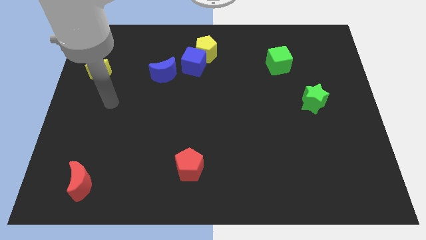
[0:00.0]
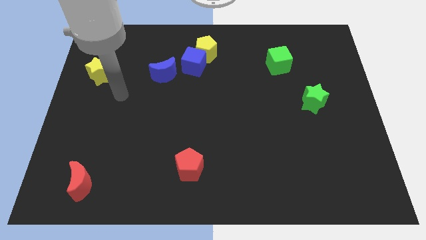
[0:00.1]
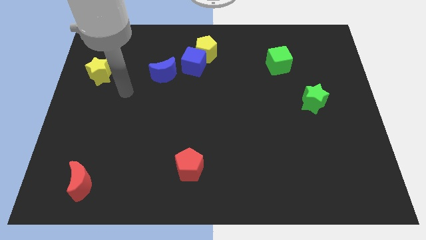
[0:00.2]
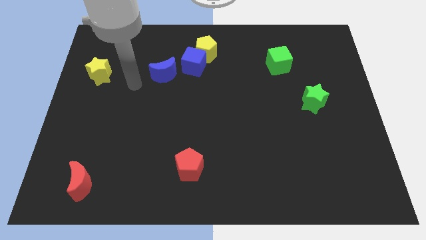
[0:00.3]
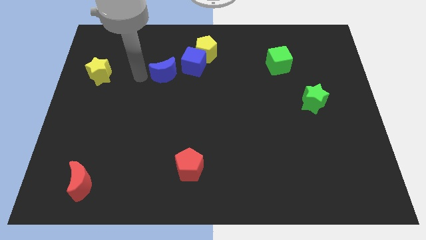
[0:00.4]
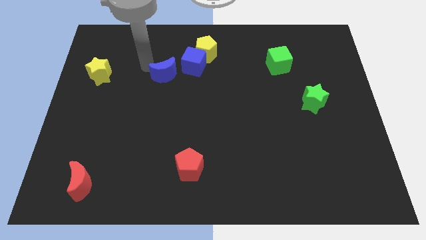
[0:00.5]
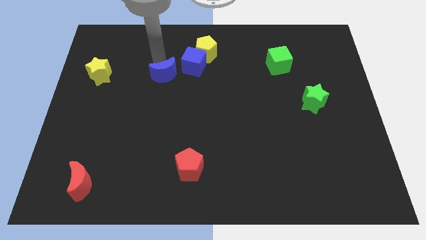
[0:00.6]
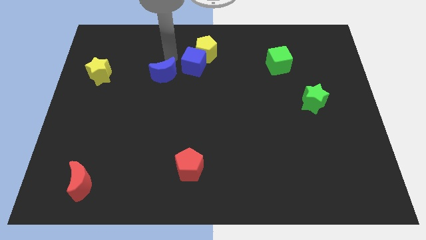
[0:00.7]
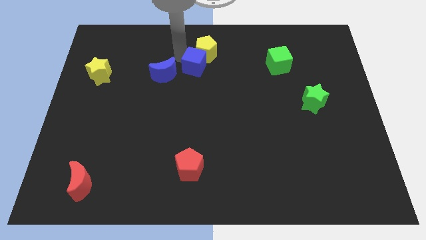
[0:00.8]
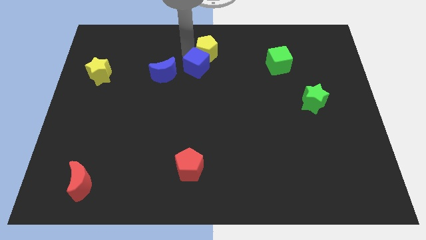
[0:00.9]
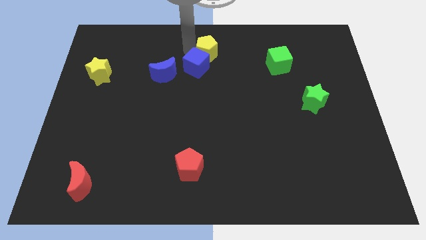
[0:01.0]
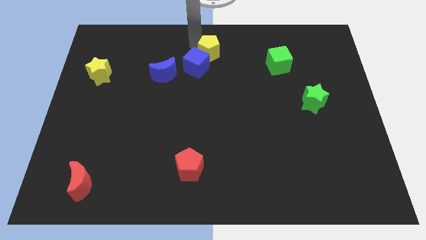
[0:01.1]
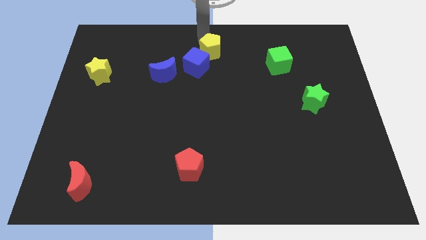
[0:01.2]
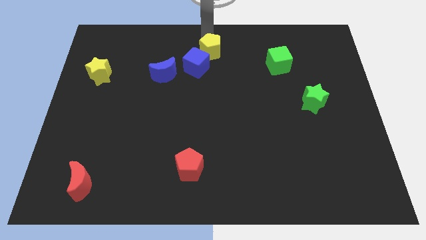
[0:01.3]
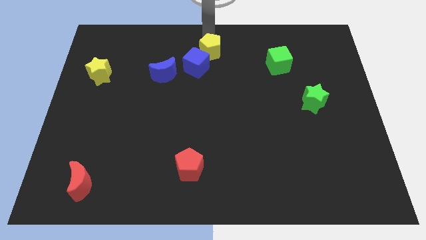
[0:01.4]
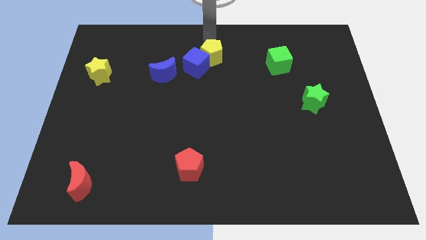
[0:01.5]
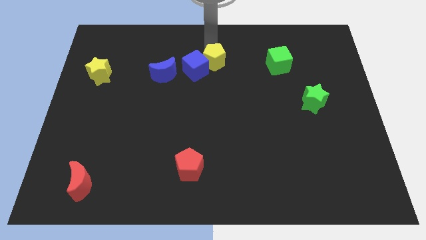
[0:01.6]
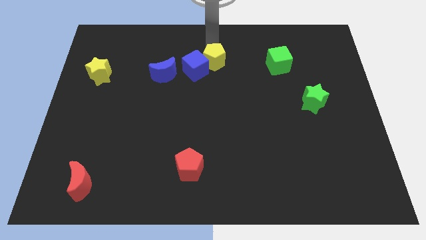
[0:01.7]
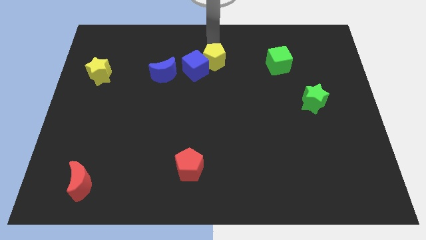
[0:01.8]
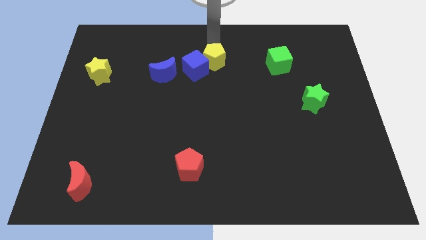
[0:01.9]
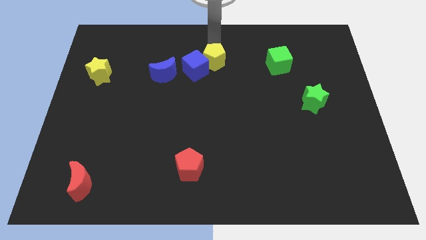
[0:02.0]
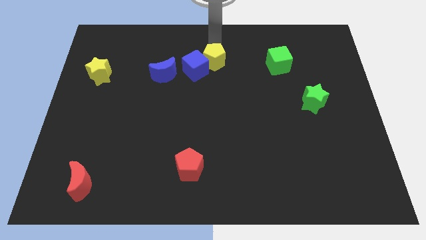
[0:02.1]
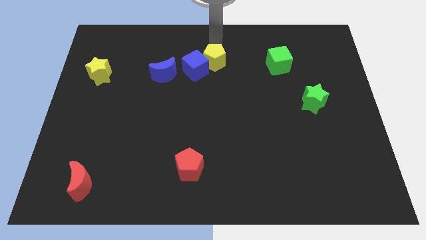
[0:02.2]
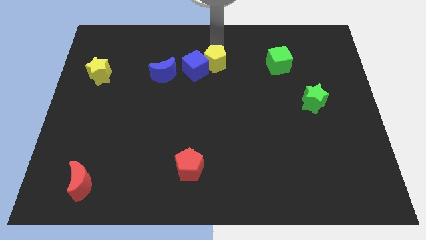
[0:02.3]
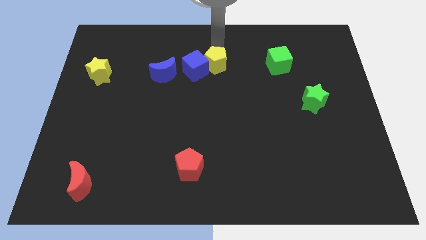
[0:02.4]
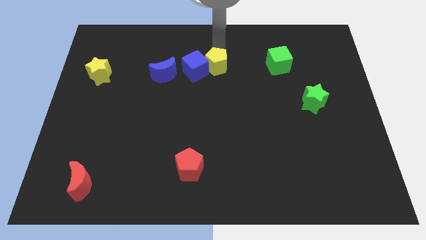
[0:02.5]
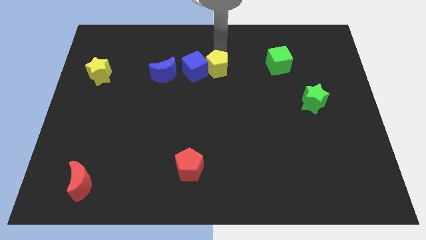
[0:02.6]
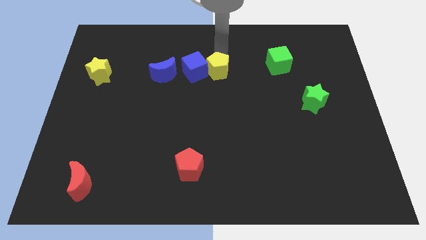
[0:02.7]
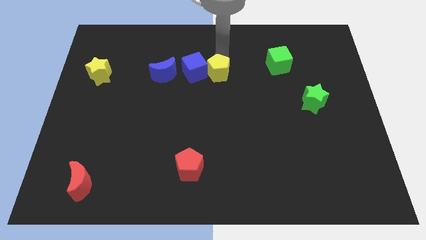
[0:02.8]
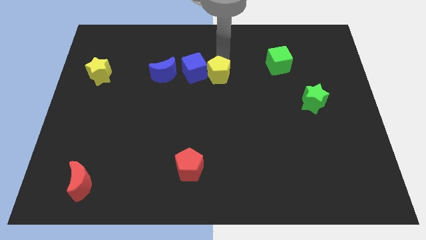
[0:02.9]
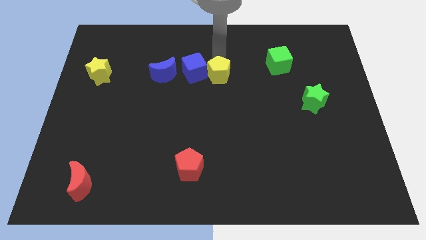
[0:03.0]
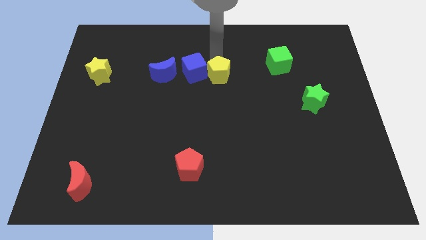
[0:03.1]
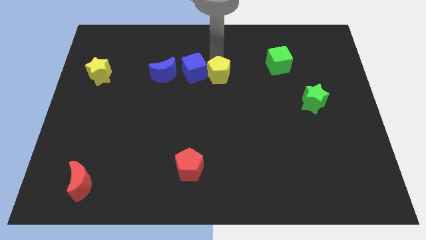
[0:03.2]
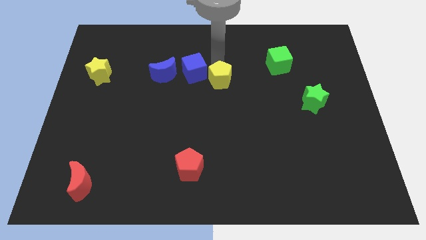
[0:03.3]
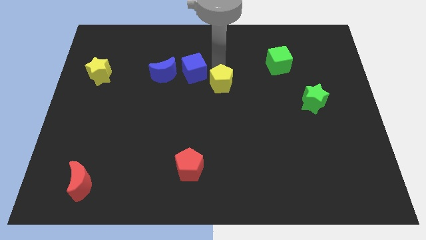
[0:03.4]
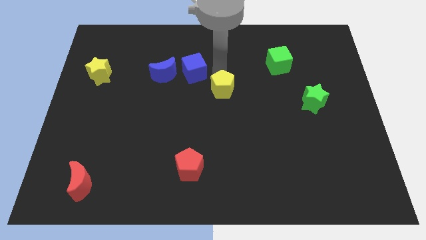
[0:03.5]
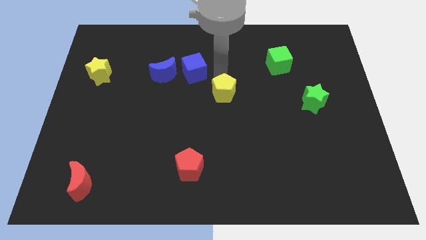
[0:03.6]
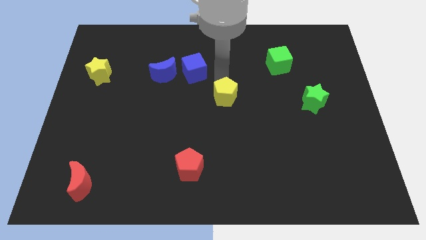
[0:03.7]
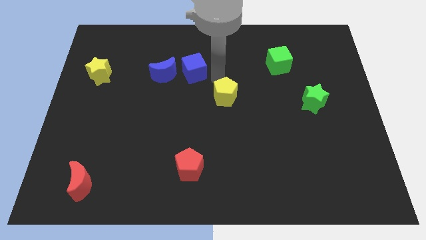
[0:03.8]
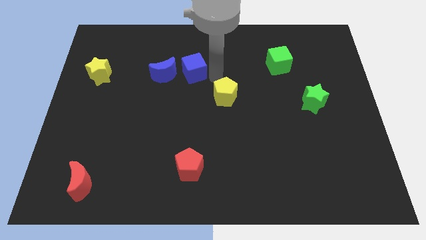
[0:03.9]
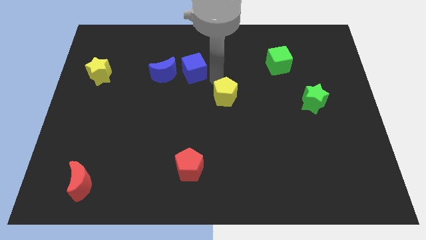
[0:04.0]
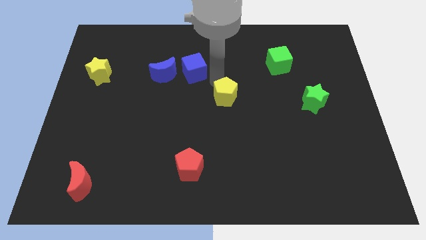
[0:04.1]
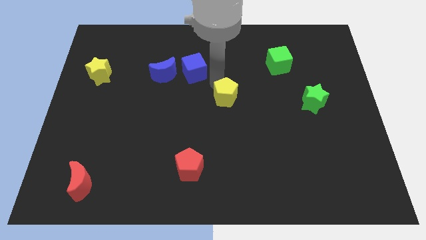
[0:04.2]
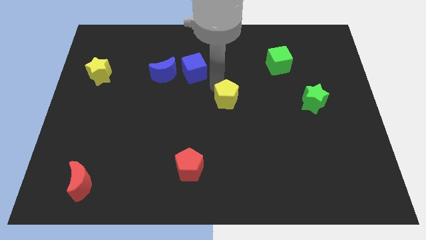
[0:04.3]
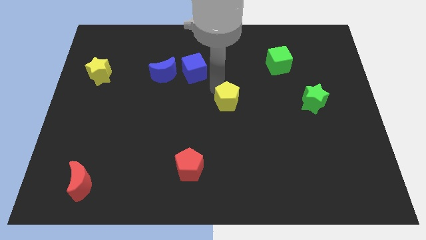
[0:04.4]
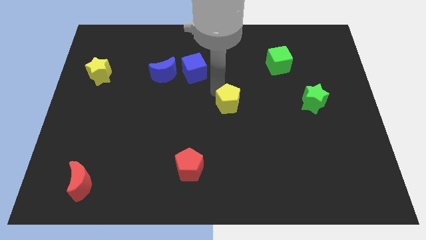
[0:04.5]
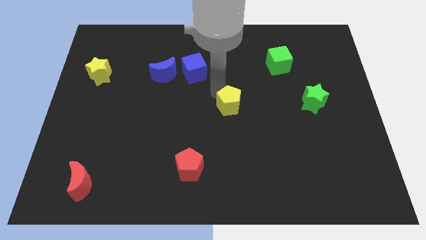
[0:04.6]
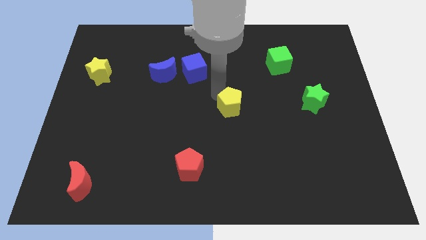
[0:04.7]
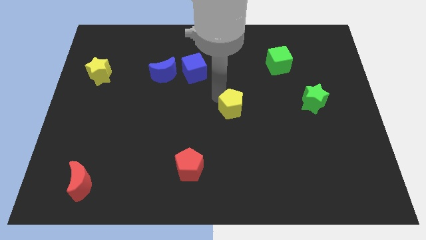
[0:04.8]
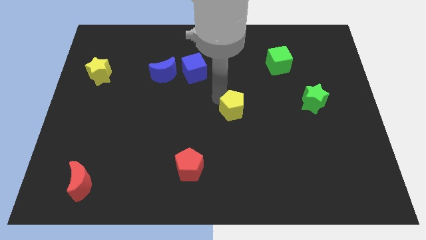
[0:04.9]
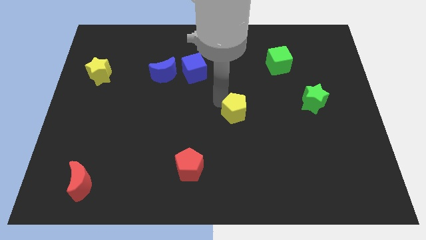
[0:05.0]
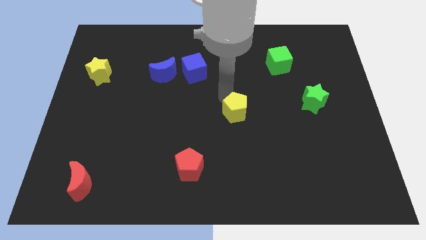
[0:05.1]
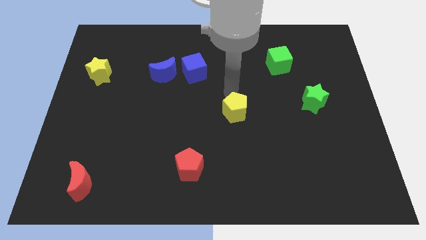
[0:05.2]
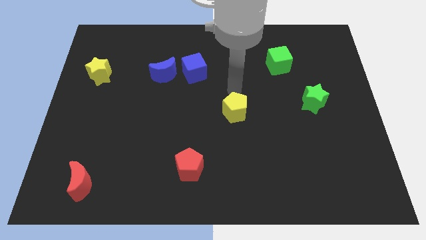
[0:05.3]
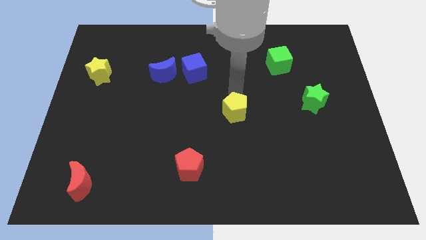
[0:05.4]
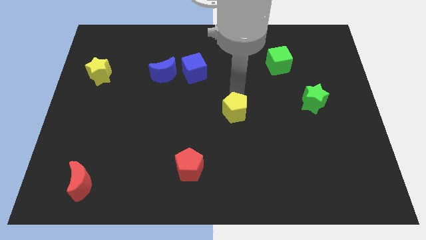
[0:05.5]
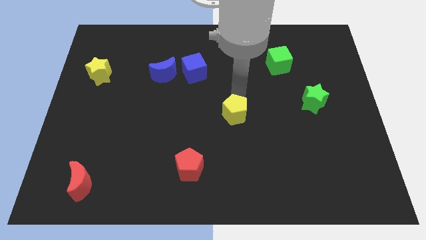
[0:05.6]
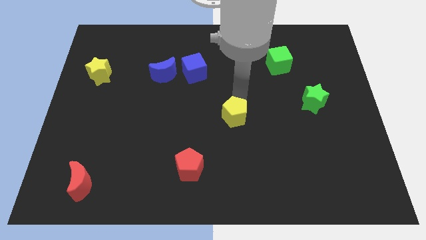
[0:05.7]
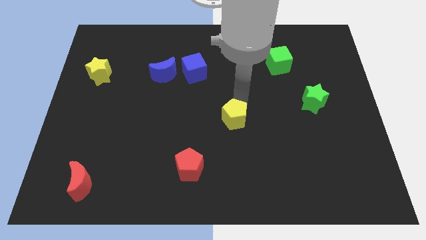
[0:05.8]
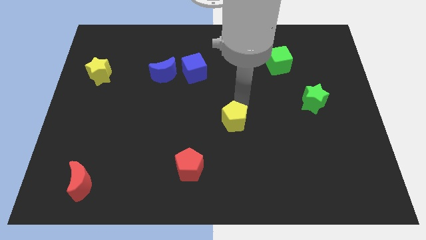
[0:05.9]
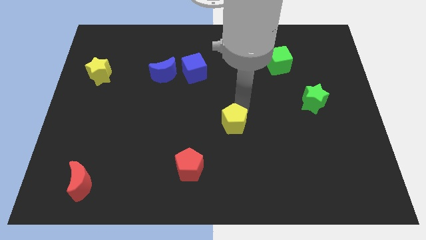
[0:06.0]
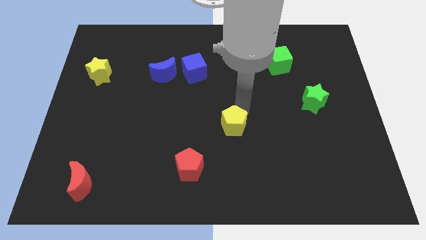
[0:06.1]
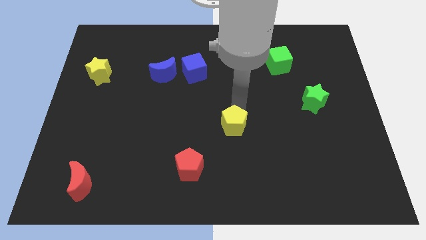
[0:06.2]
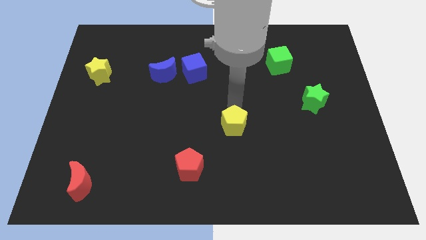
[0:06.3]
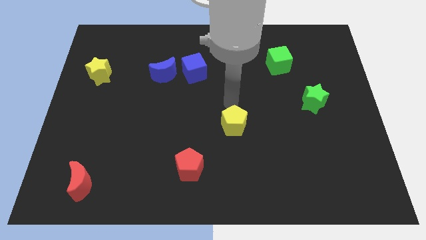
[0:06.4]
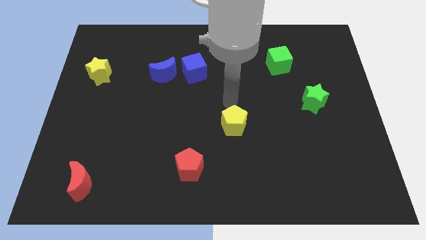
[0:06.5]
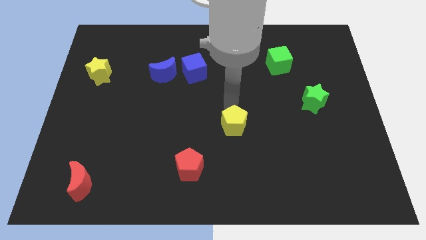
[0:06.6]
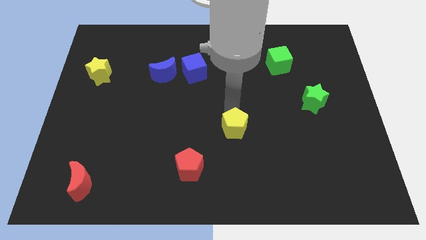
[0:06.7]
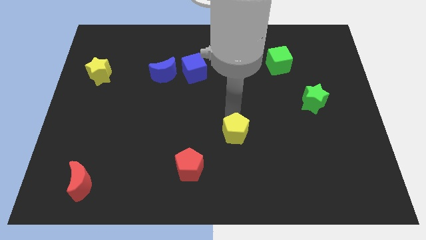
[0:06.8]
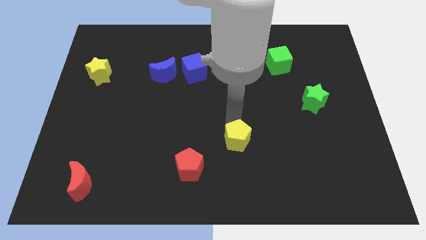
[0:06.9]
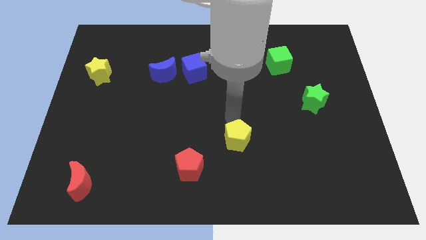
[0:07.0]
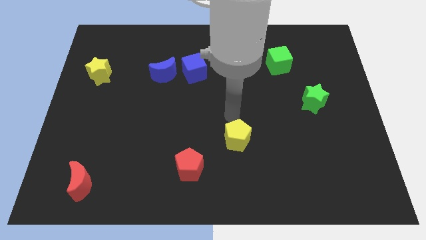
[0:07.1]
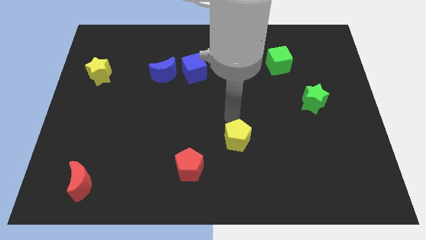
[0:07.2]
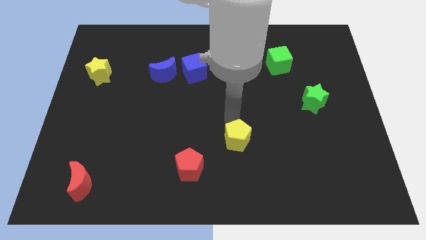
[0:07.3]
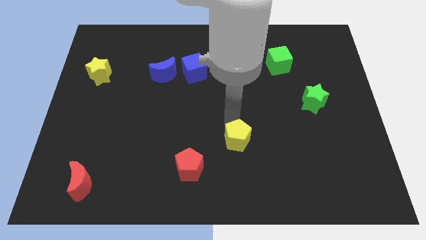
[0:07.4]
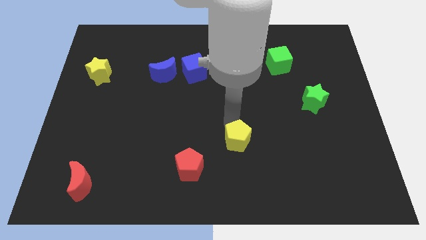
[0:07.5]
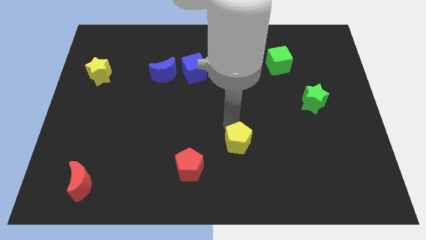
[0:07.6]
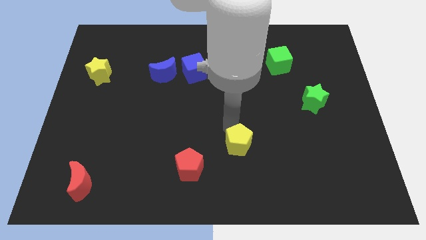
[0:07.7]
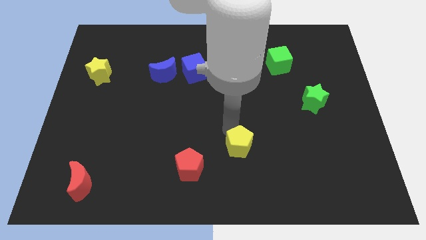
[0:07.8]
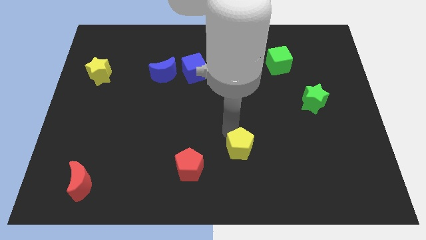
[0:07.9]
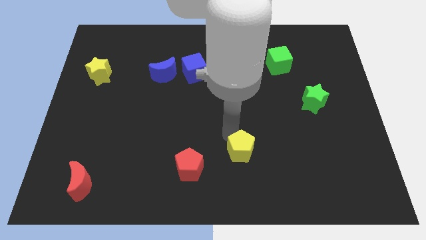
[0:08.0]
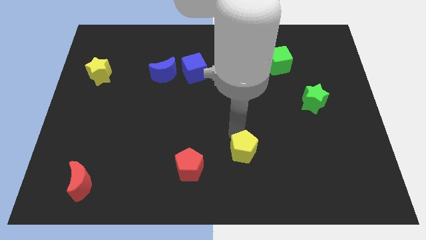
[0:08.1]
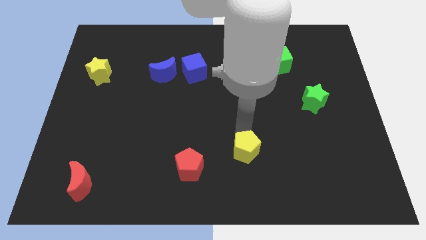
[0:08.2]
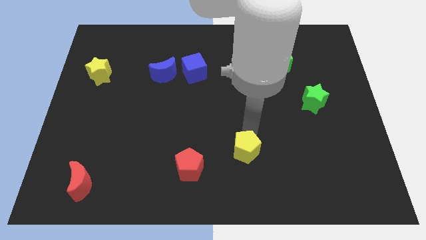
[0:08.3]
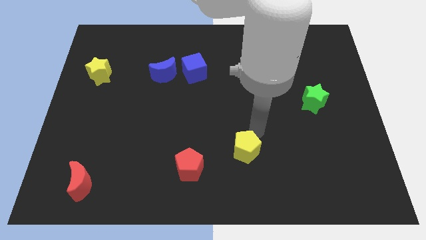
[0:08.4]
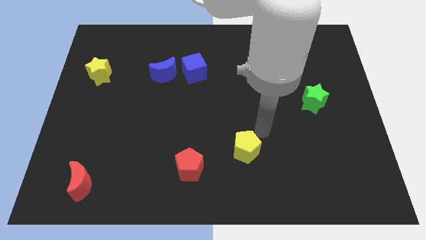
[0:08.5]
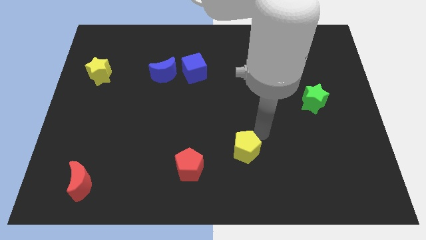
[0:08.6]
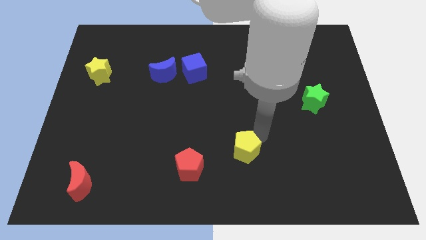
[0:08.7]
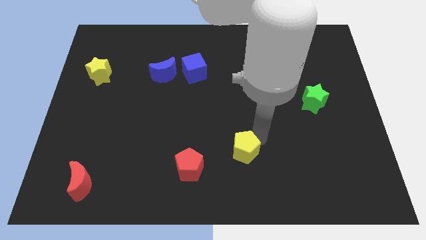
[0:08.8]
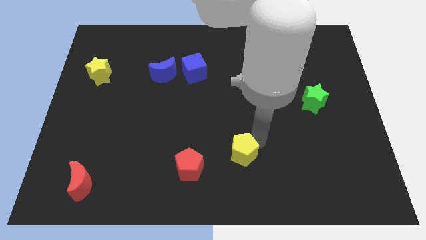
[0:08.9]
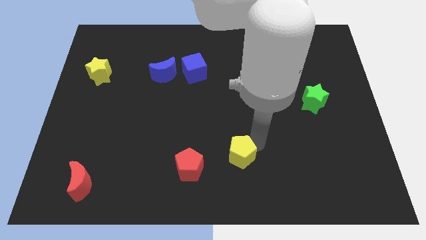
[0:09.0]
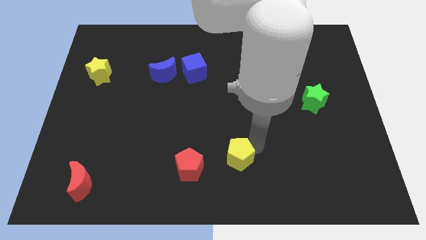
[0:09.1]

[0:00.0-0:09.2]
put the yellow pentagon to the bottom side
